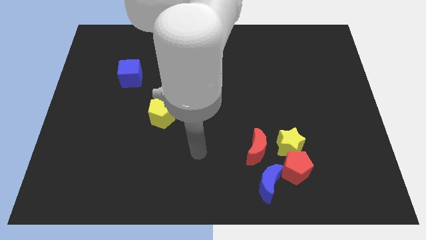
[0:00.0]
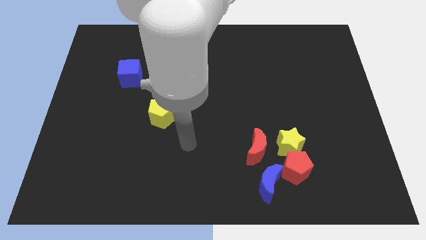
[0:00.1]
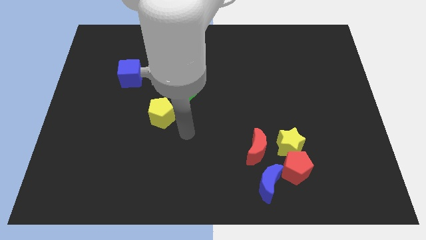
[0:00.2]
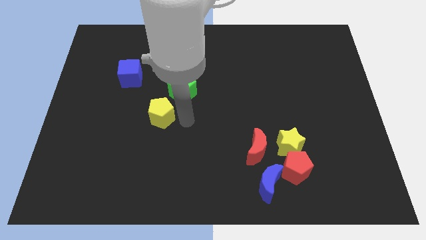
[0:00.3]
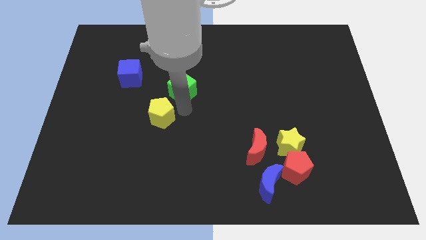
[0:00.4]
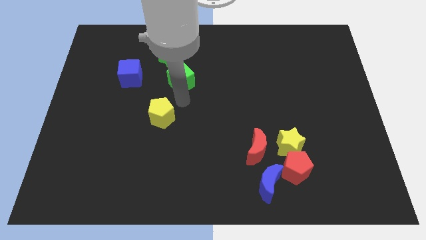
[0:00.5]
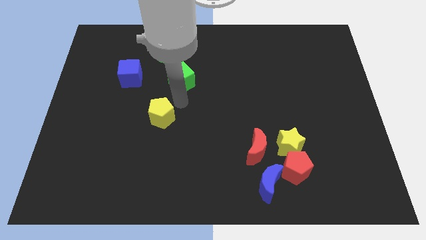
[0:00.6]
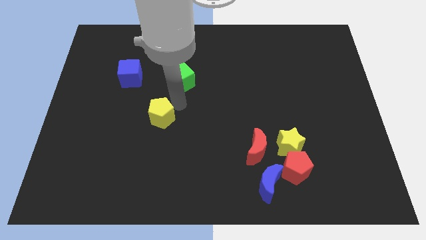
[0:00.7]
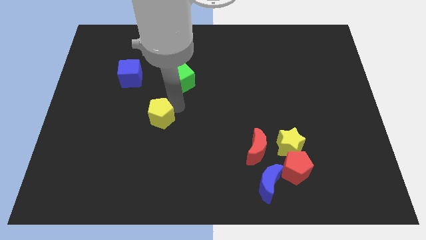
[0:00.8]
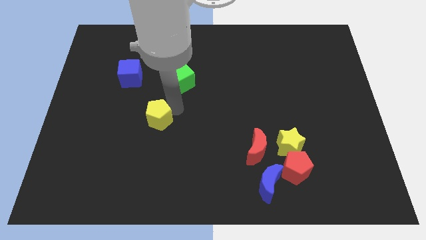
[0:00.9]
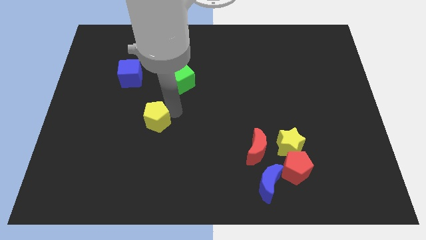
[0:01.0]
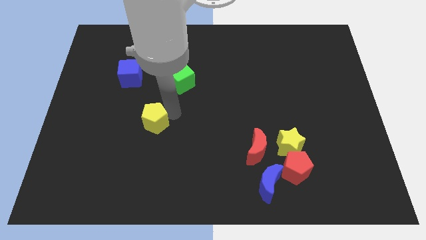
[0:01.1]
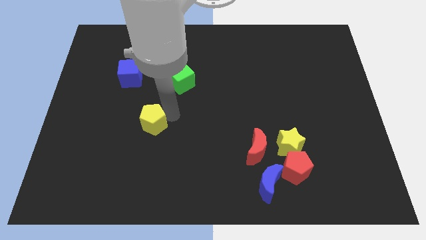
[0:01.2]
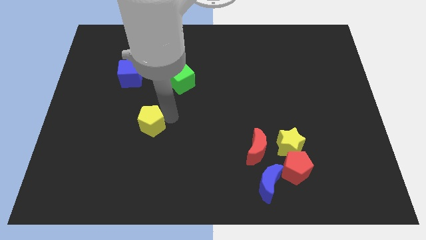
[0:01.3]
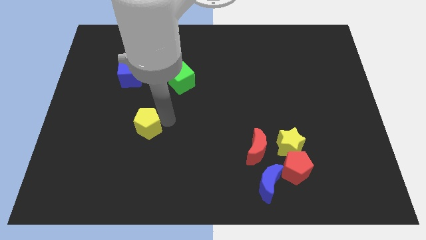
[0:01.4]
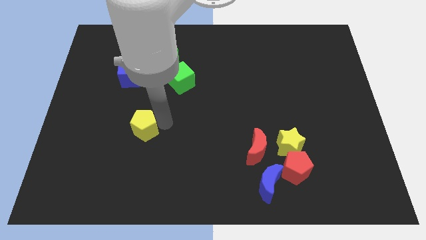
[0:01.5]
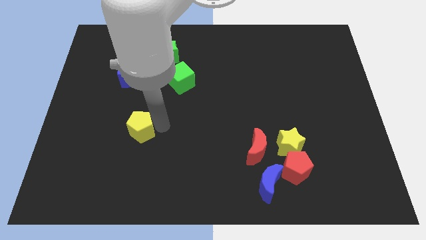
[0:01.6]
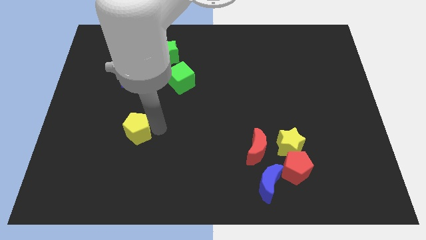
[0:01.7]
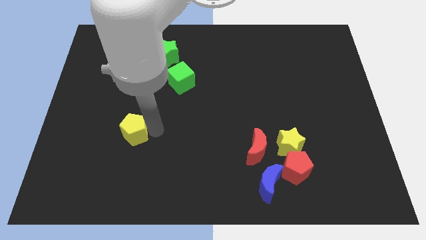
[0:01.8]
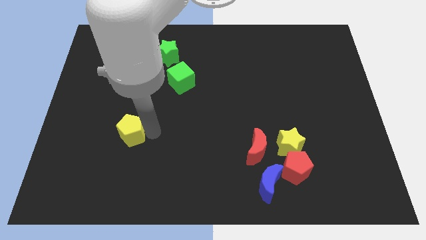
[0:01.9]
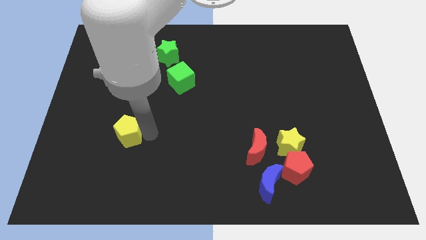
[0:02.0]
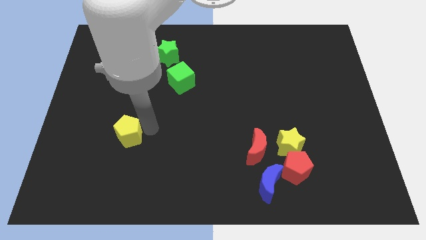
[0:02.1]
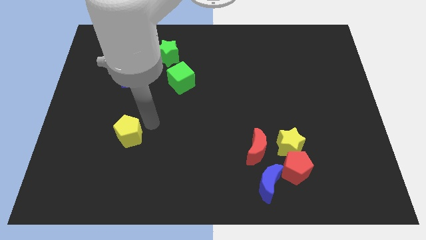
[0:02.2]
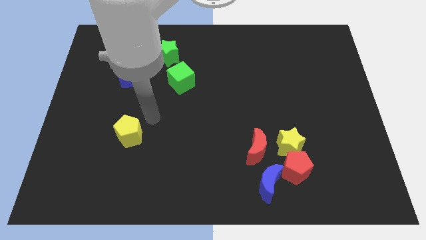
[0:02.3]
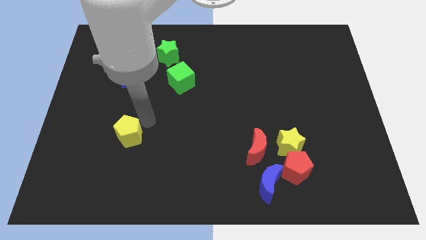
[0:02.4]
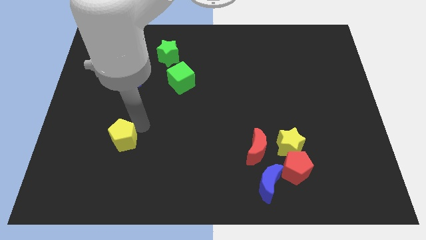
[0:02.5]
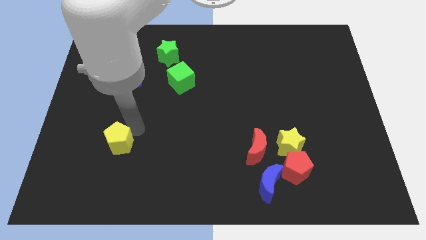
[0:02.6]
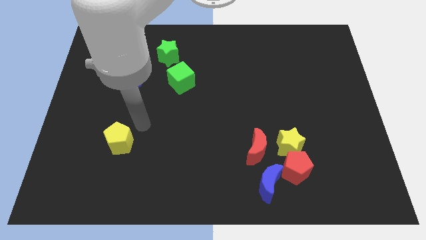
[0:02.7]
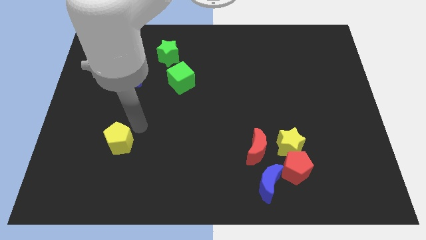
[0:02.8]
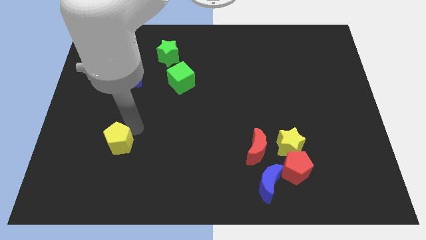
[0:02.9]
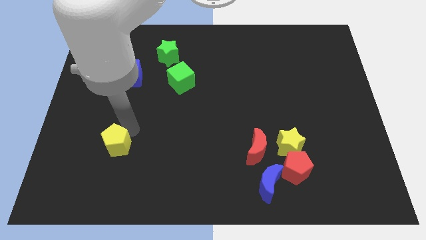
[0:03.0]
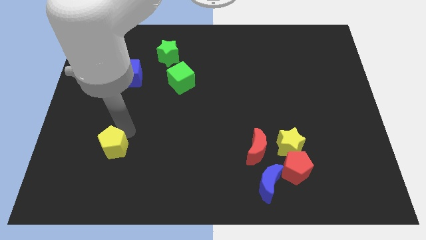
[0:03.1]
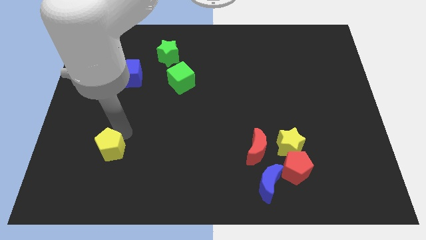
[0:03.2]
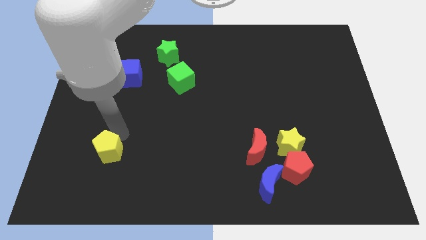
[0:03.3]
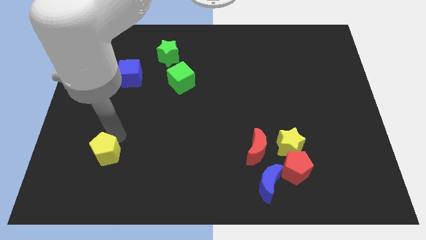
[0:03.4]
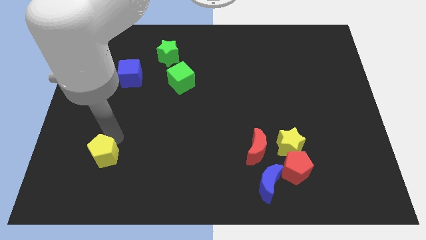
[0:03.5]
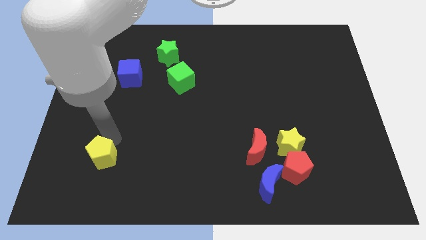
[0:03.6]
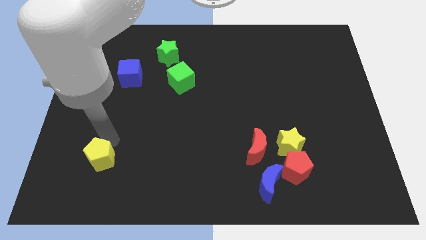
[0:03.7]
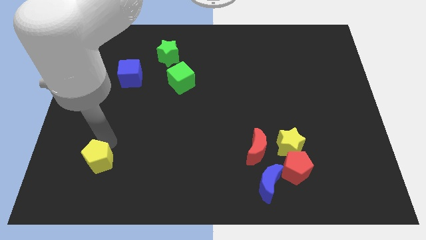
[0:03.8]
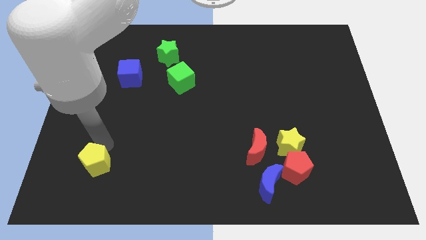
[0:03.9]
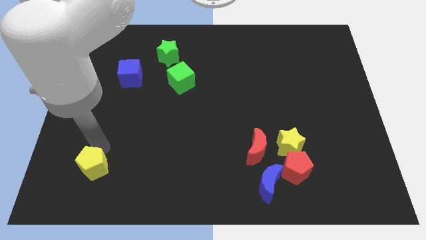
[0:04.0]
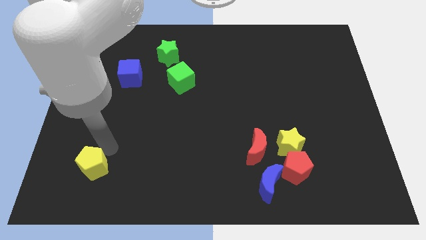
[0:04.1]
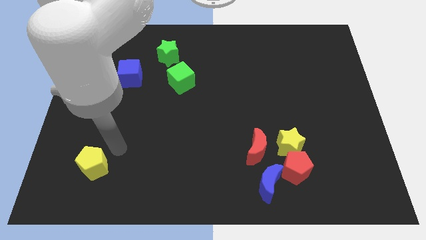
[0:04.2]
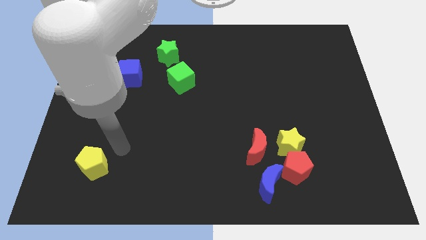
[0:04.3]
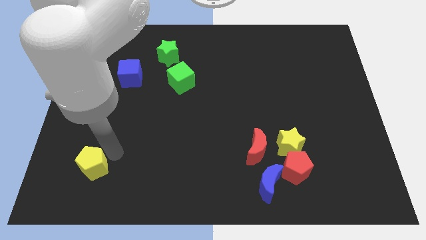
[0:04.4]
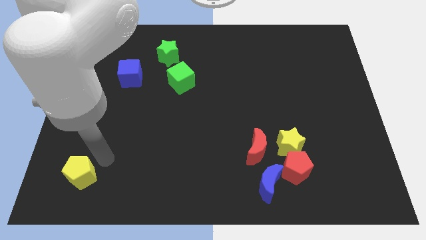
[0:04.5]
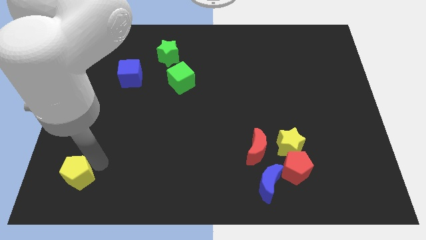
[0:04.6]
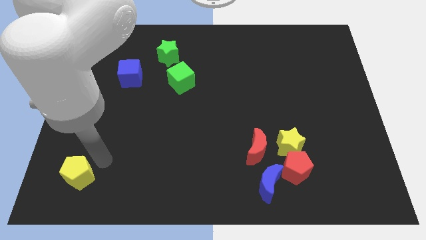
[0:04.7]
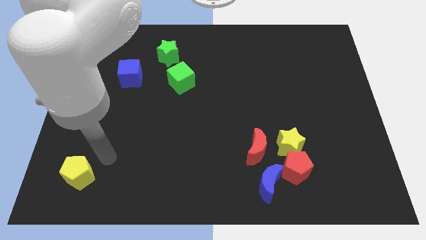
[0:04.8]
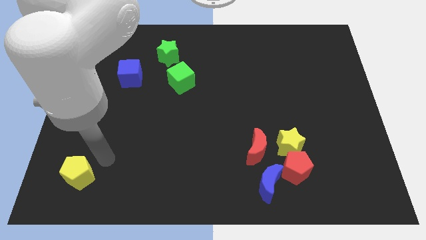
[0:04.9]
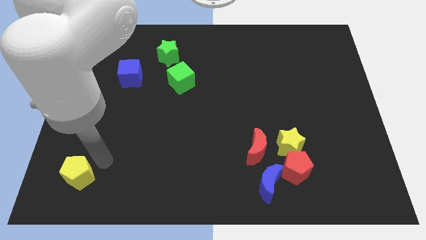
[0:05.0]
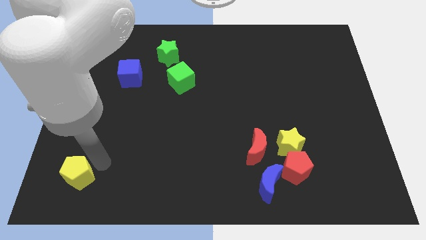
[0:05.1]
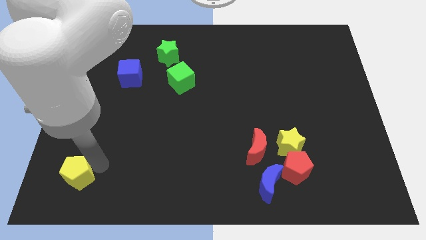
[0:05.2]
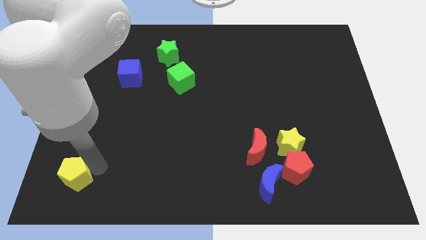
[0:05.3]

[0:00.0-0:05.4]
slide the yellow pentagon to the lower left corner

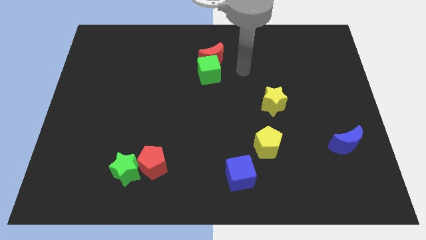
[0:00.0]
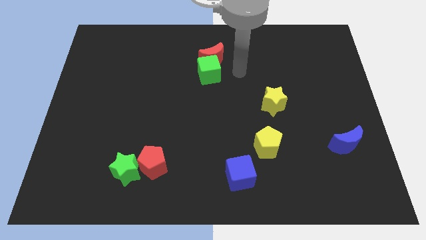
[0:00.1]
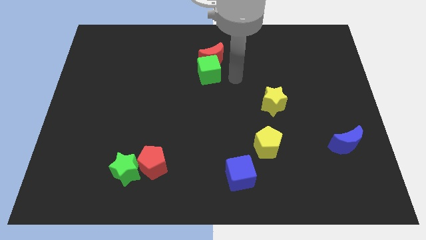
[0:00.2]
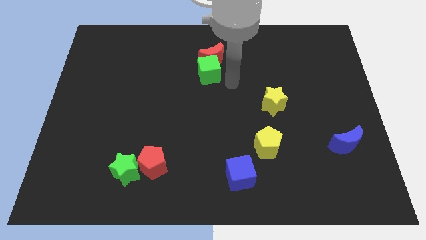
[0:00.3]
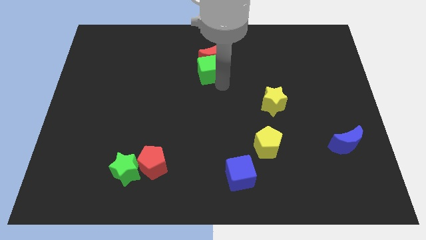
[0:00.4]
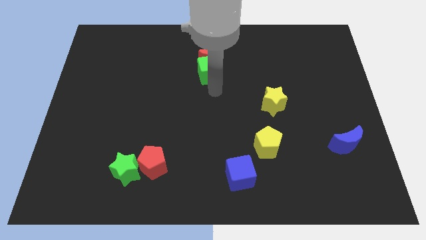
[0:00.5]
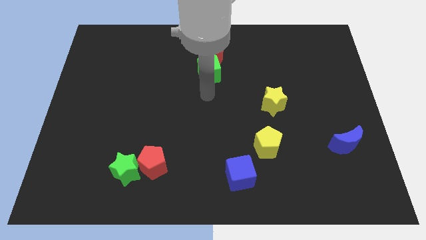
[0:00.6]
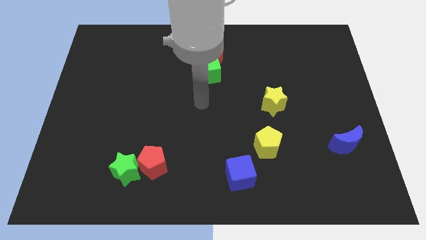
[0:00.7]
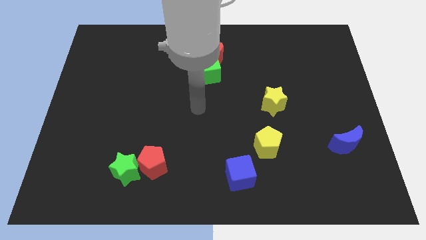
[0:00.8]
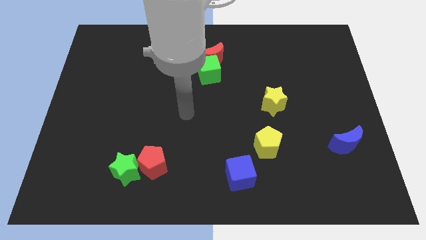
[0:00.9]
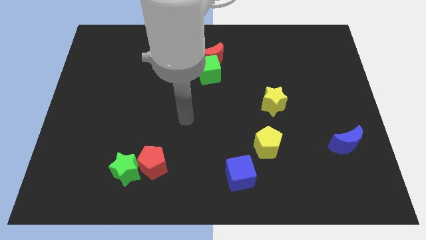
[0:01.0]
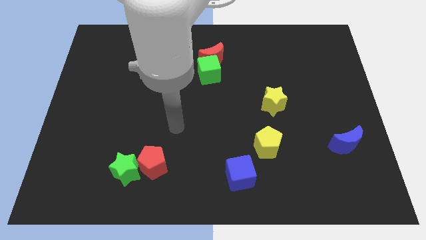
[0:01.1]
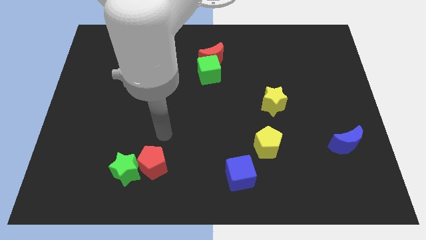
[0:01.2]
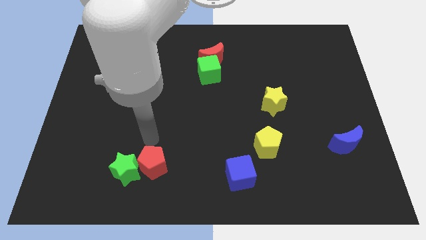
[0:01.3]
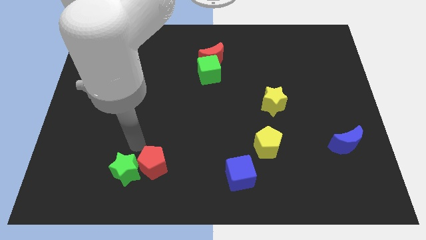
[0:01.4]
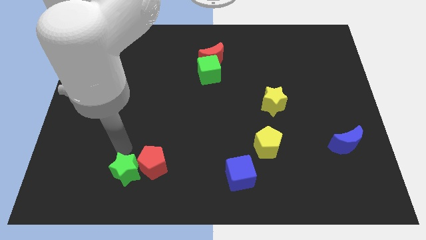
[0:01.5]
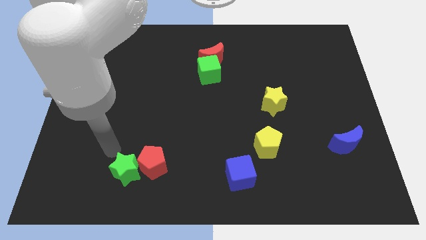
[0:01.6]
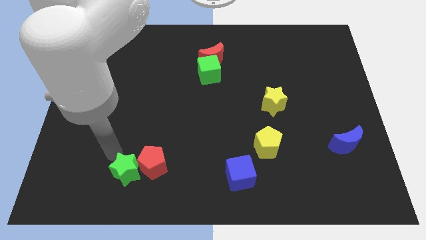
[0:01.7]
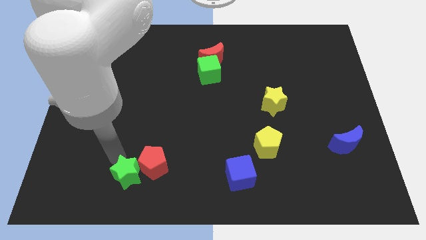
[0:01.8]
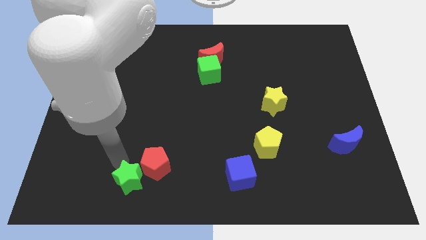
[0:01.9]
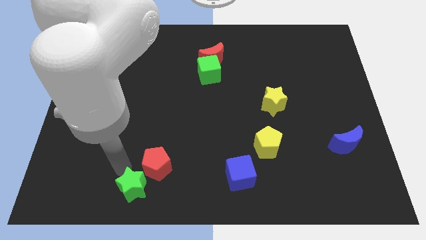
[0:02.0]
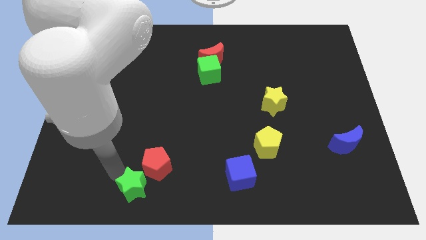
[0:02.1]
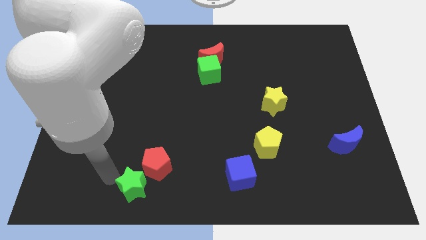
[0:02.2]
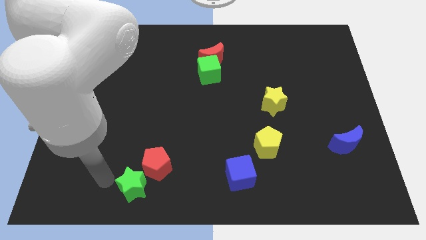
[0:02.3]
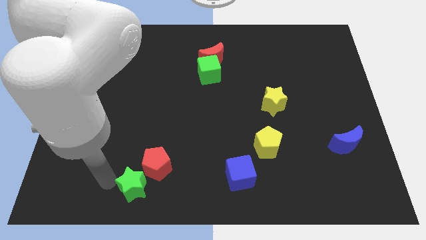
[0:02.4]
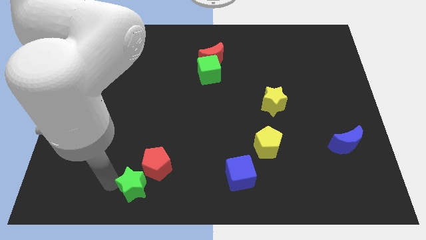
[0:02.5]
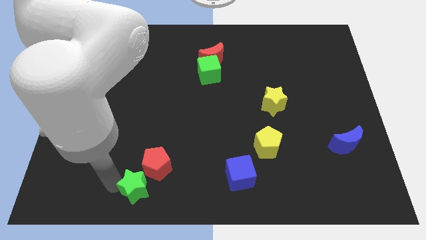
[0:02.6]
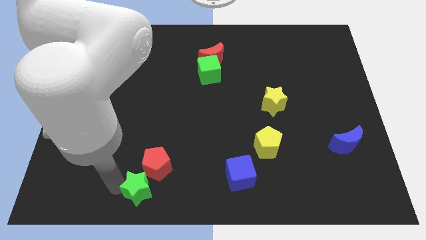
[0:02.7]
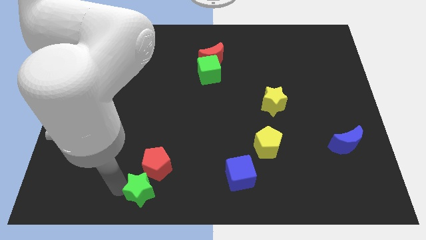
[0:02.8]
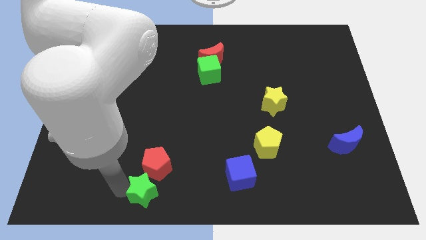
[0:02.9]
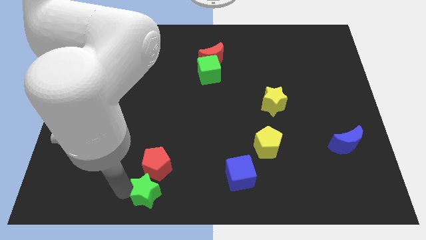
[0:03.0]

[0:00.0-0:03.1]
move the green star to the bottom side
